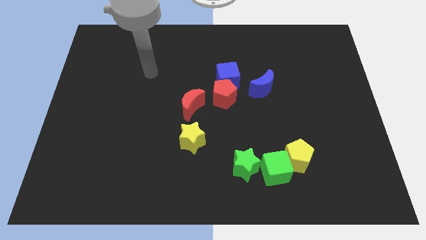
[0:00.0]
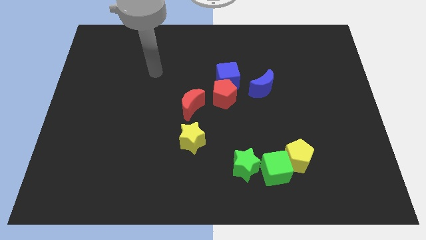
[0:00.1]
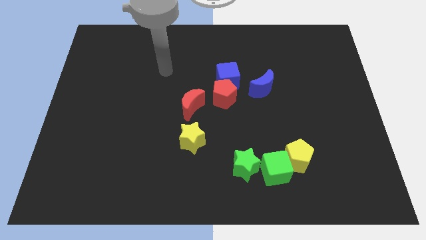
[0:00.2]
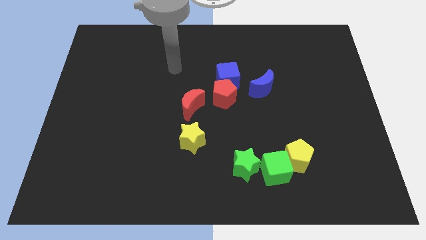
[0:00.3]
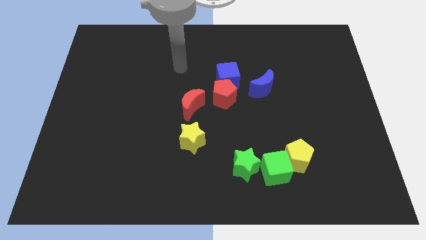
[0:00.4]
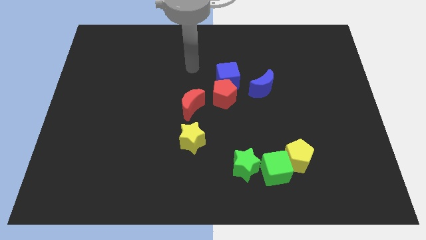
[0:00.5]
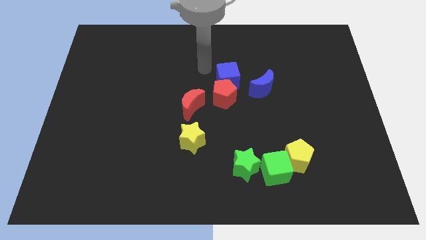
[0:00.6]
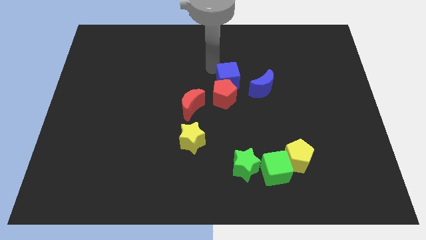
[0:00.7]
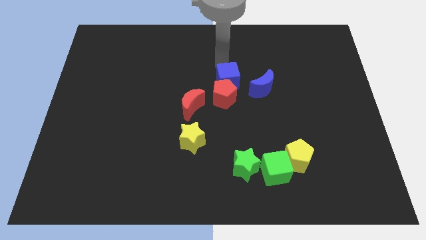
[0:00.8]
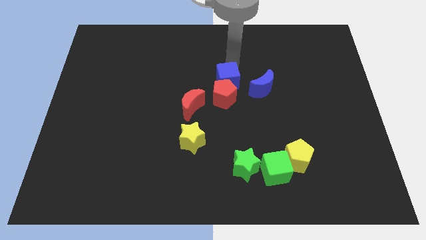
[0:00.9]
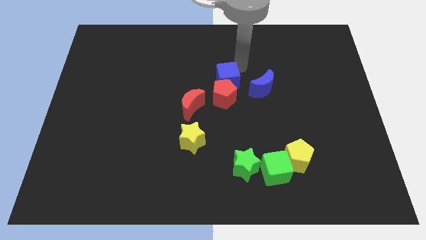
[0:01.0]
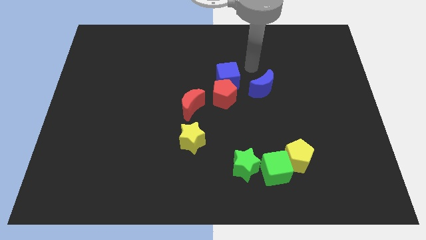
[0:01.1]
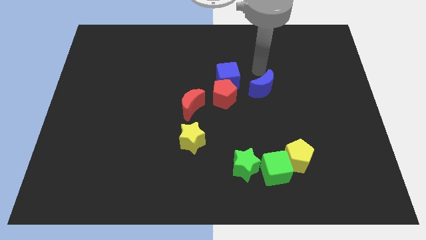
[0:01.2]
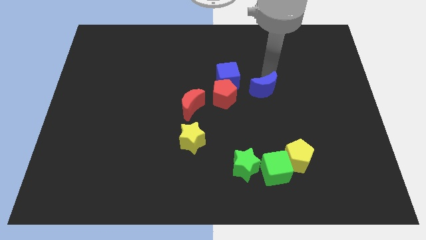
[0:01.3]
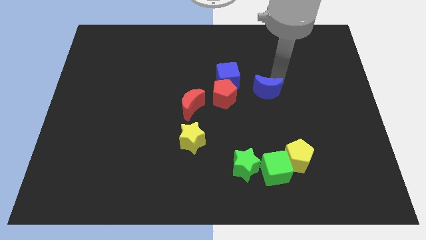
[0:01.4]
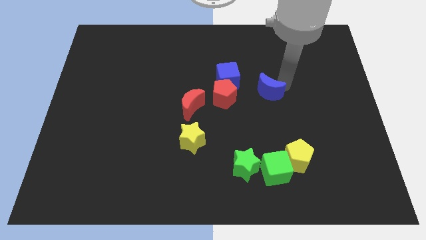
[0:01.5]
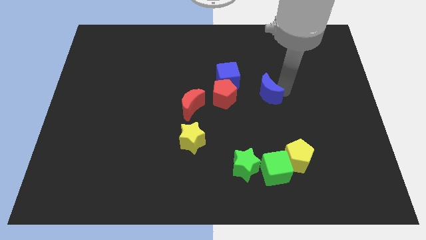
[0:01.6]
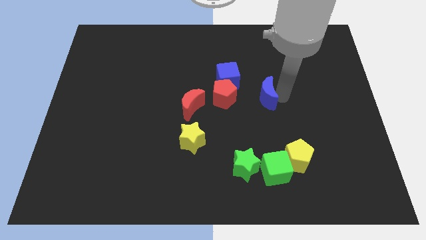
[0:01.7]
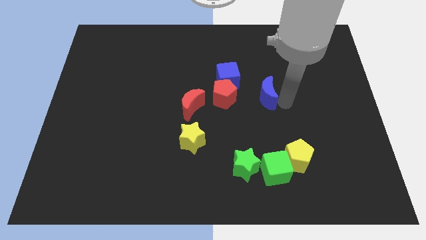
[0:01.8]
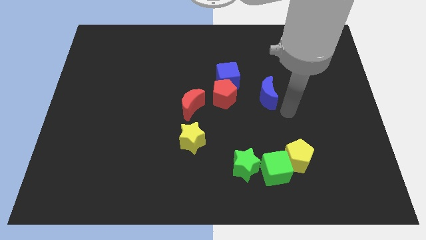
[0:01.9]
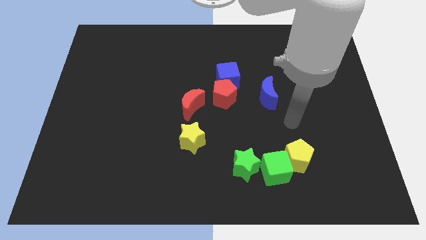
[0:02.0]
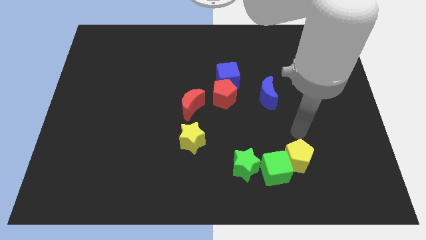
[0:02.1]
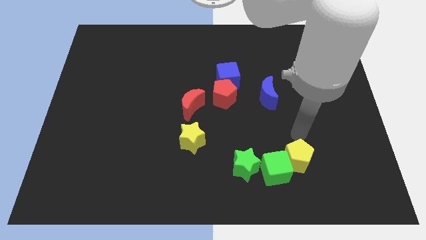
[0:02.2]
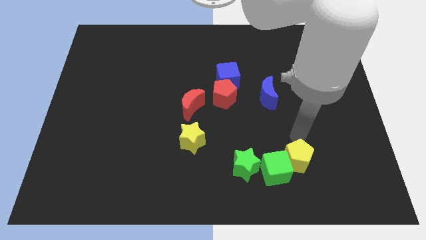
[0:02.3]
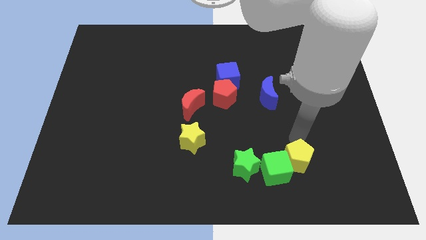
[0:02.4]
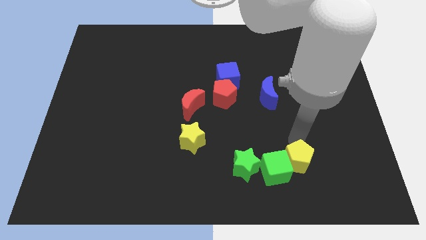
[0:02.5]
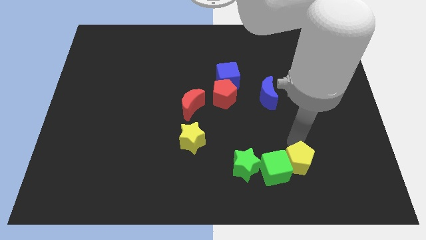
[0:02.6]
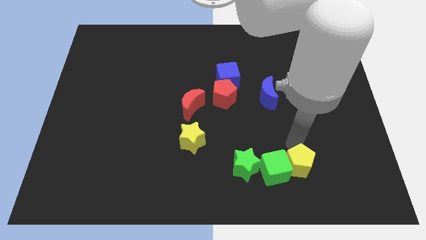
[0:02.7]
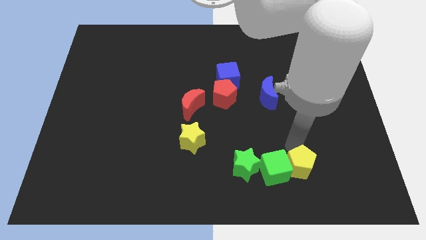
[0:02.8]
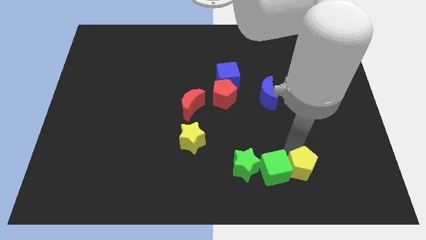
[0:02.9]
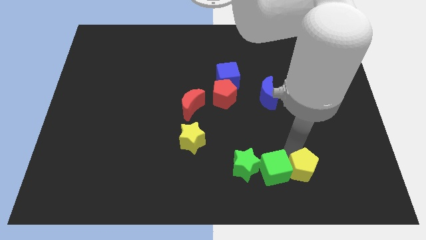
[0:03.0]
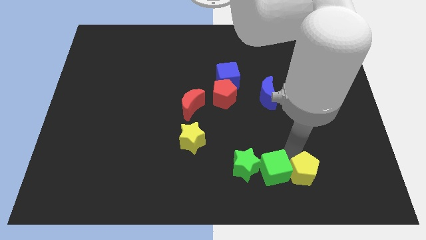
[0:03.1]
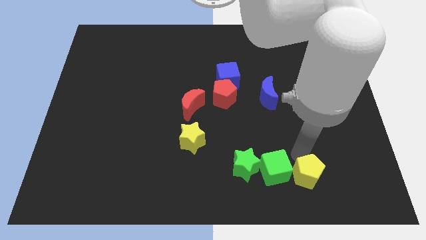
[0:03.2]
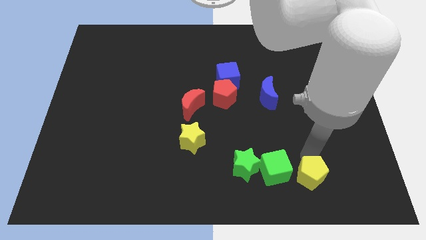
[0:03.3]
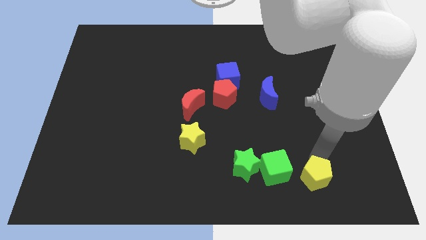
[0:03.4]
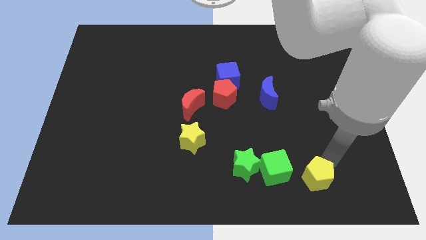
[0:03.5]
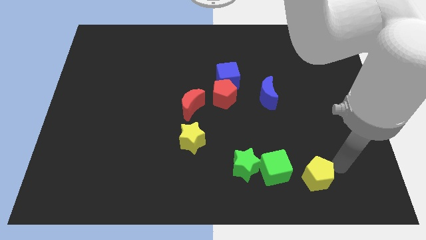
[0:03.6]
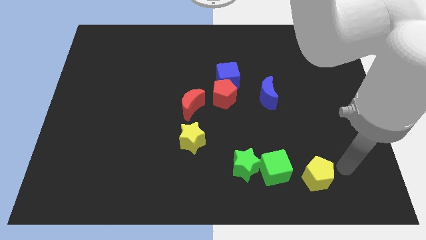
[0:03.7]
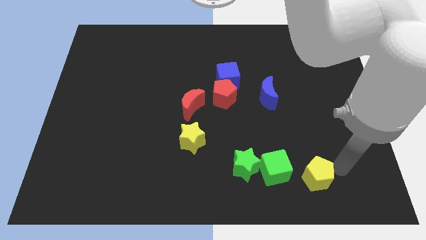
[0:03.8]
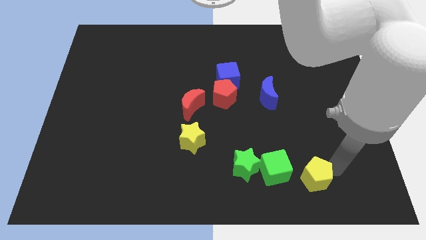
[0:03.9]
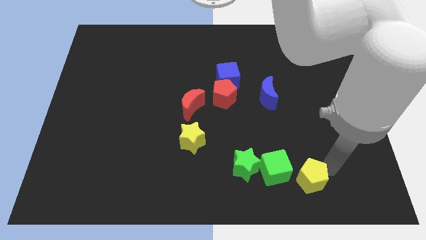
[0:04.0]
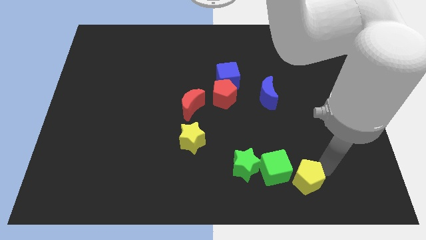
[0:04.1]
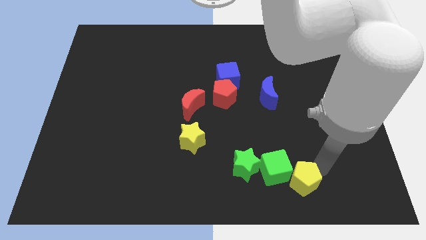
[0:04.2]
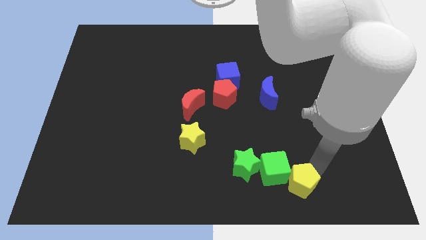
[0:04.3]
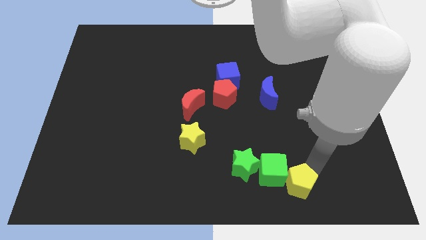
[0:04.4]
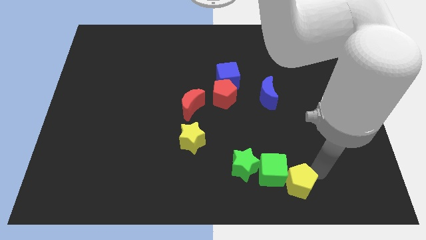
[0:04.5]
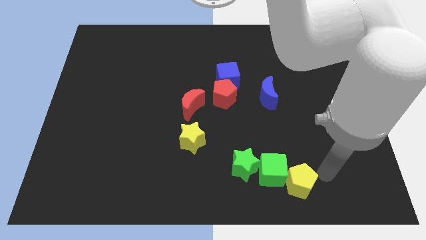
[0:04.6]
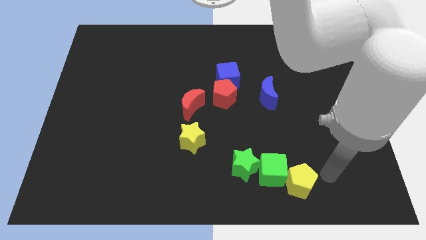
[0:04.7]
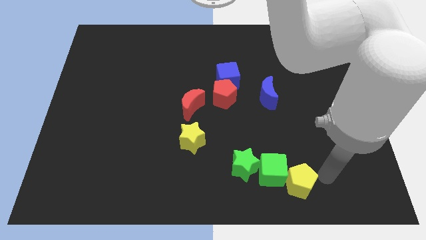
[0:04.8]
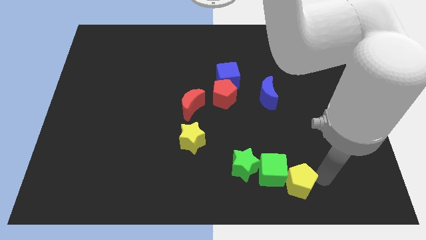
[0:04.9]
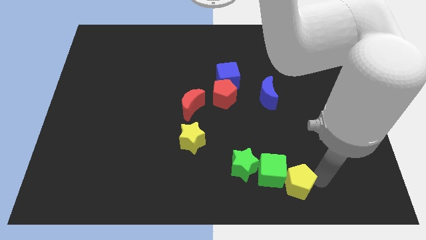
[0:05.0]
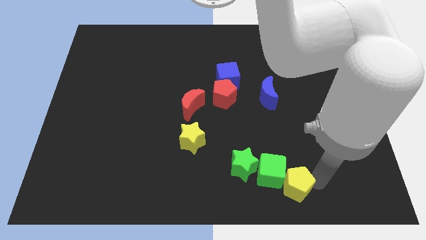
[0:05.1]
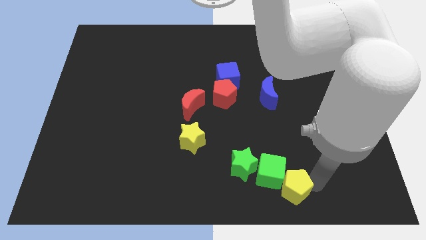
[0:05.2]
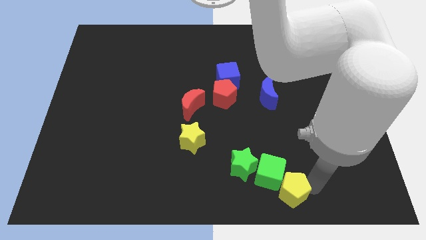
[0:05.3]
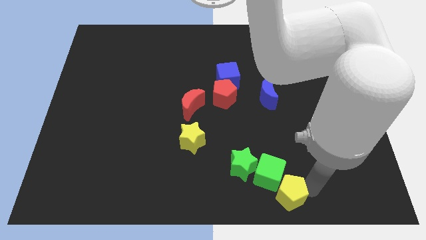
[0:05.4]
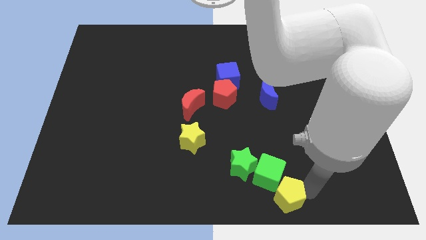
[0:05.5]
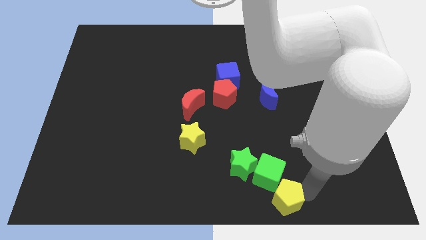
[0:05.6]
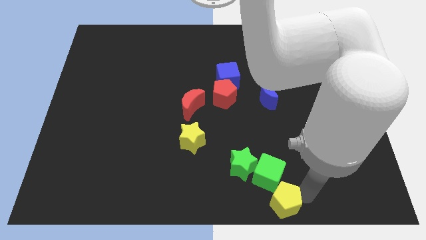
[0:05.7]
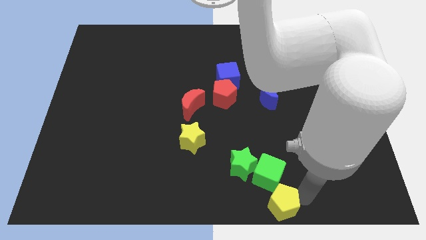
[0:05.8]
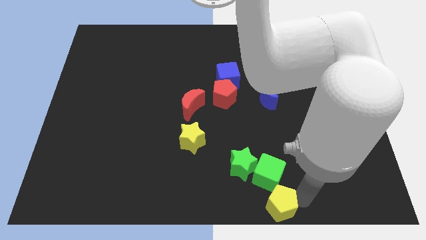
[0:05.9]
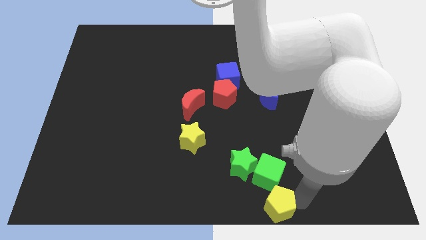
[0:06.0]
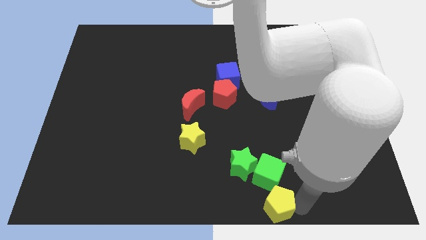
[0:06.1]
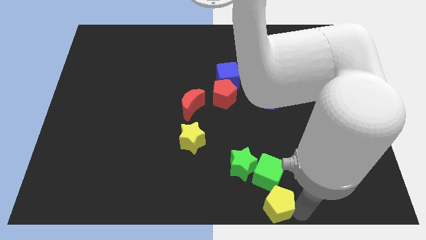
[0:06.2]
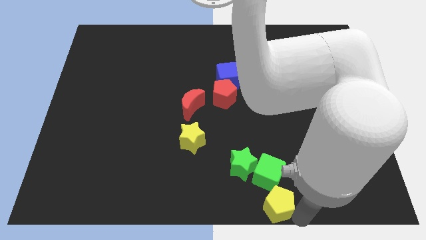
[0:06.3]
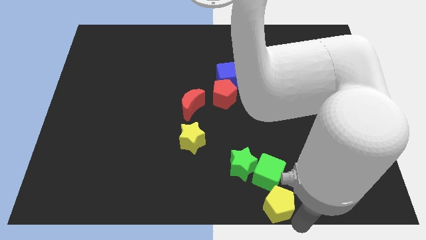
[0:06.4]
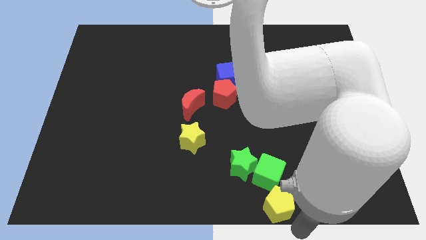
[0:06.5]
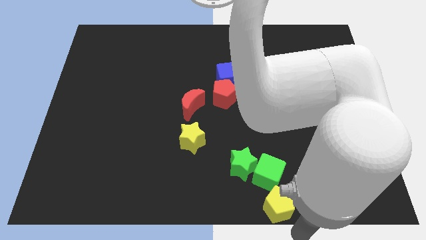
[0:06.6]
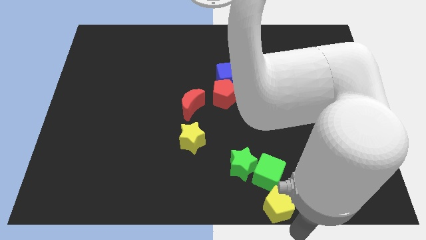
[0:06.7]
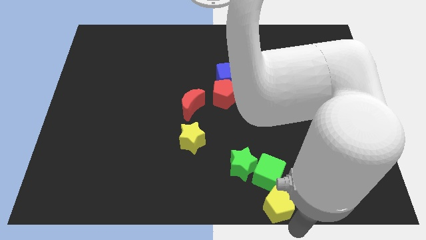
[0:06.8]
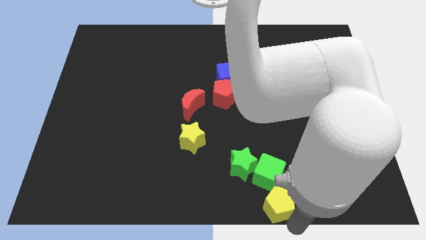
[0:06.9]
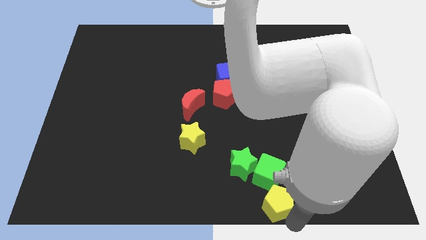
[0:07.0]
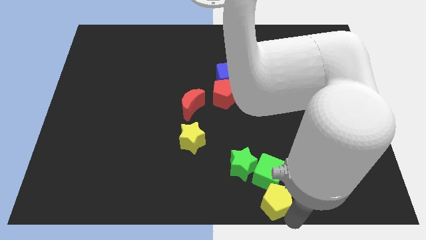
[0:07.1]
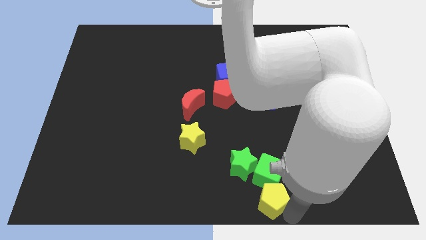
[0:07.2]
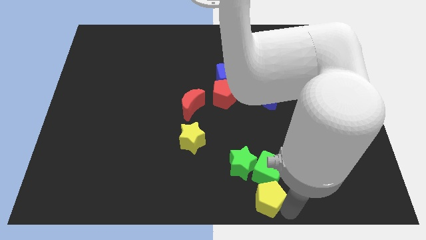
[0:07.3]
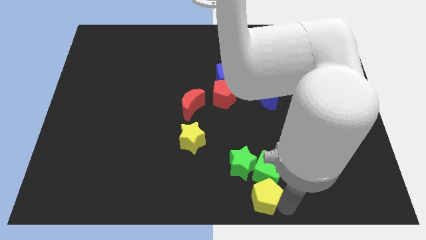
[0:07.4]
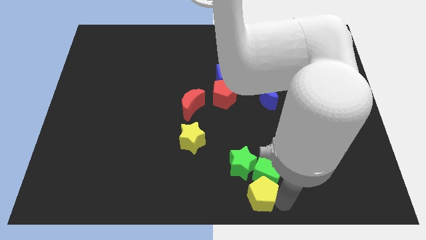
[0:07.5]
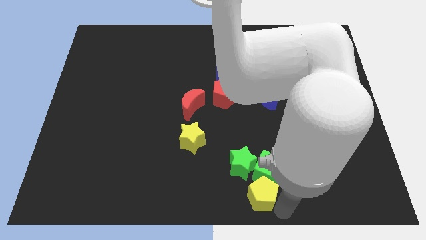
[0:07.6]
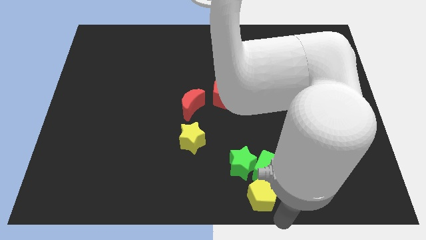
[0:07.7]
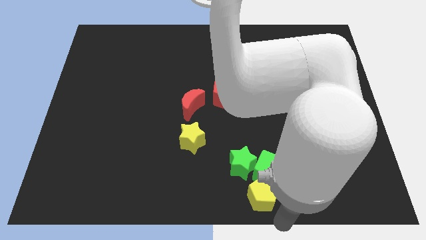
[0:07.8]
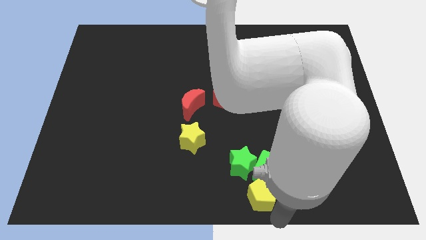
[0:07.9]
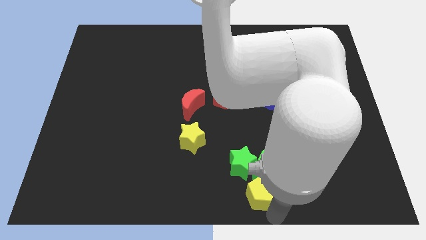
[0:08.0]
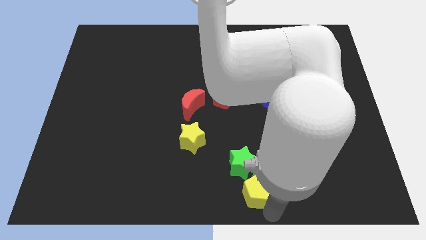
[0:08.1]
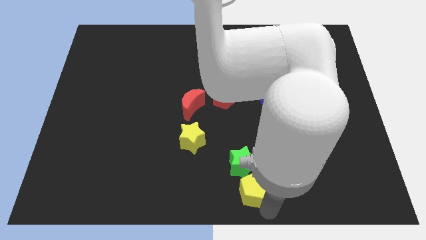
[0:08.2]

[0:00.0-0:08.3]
put the yellow pentagon next to the green star
